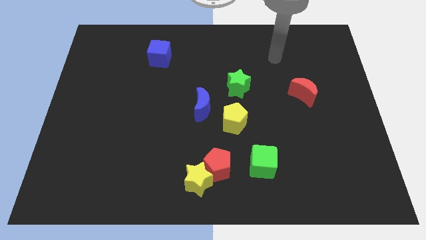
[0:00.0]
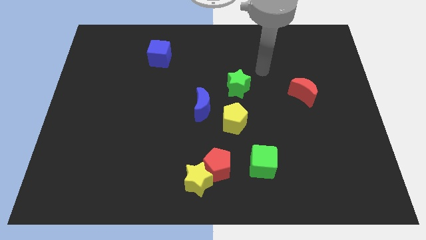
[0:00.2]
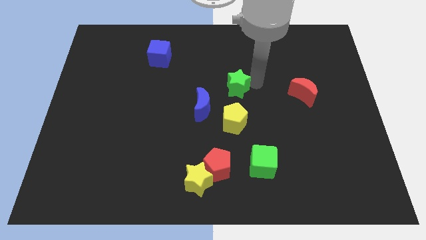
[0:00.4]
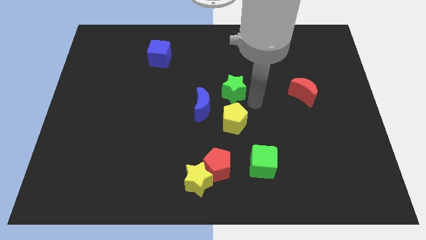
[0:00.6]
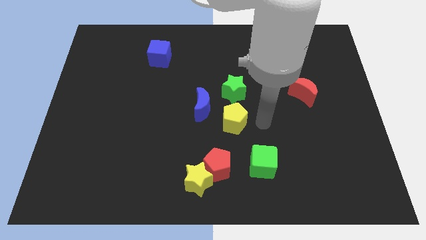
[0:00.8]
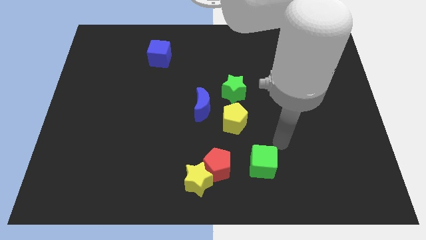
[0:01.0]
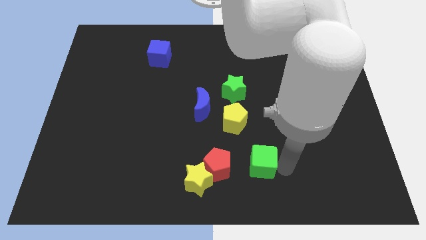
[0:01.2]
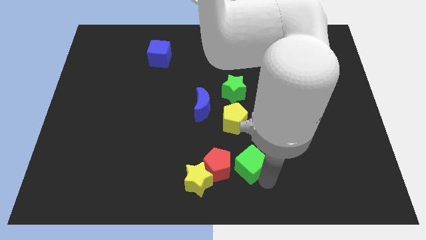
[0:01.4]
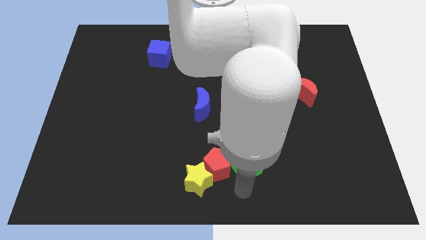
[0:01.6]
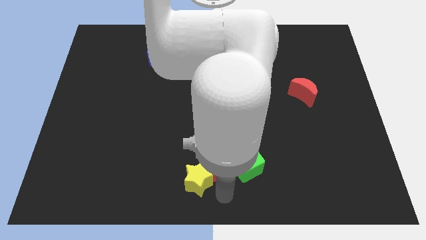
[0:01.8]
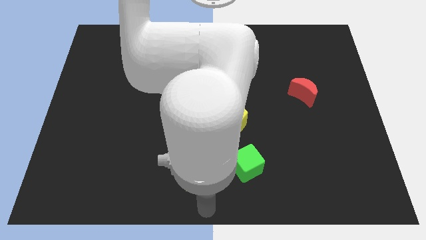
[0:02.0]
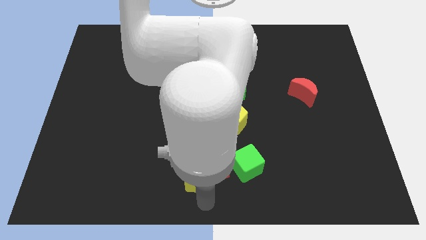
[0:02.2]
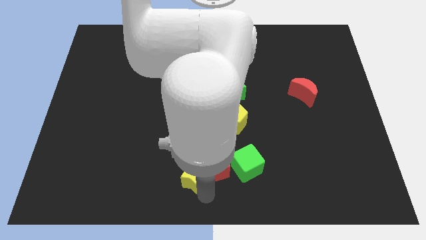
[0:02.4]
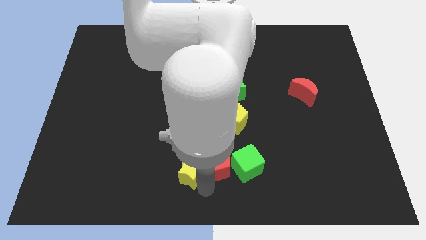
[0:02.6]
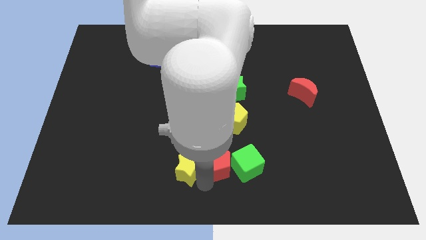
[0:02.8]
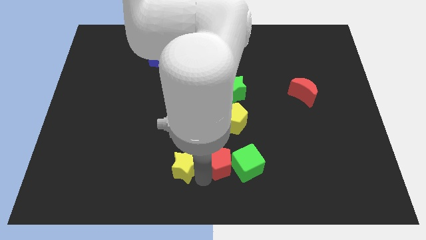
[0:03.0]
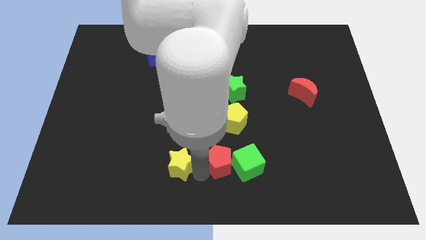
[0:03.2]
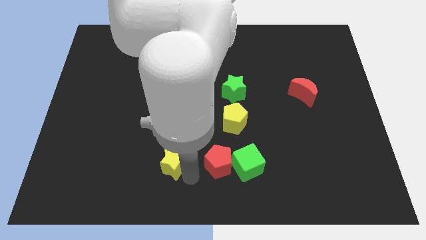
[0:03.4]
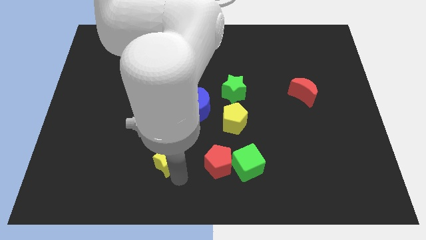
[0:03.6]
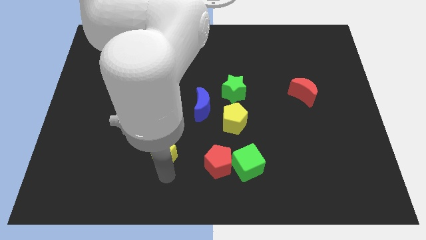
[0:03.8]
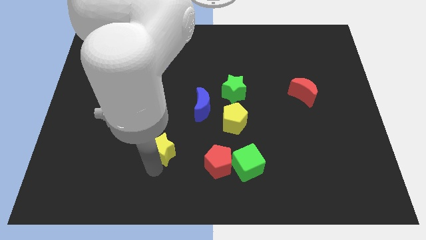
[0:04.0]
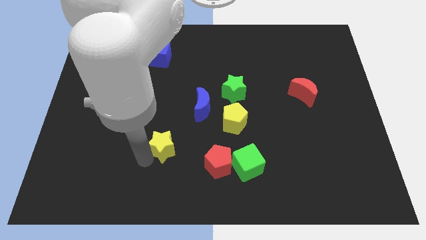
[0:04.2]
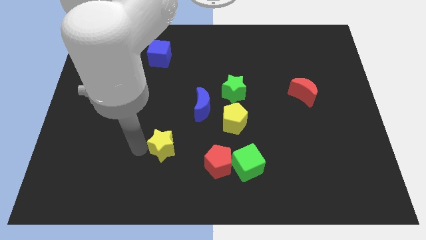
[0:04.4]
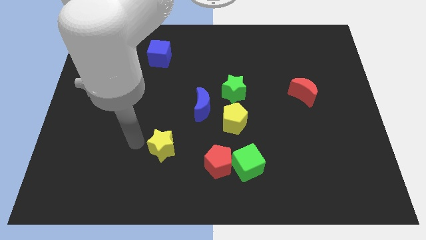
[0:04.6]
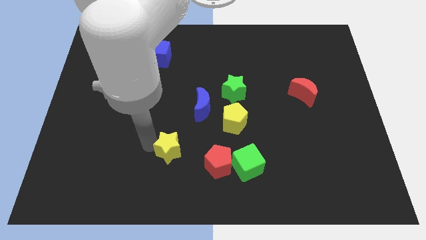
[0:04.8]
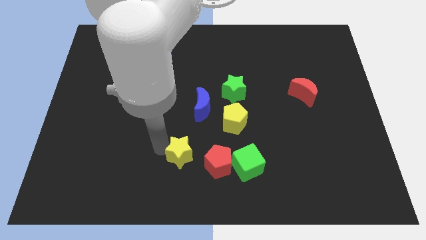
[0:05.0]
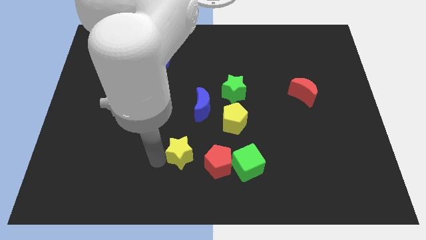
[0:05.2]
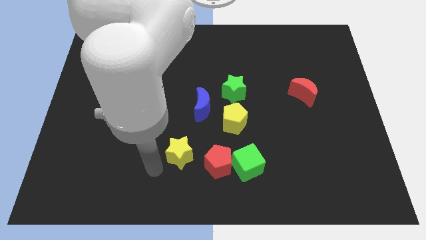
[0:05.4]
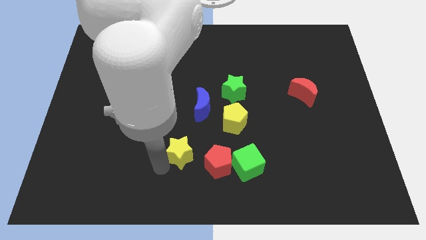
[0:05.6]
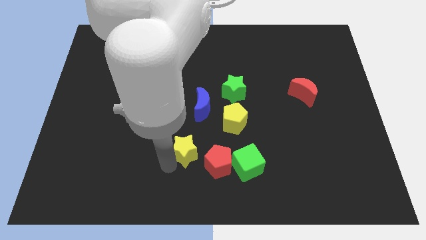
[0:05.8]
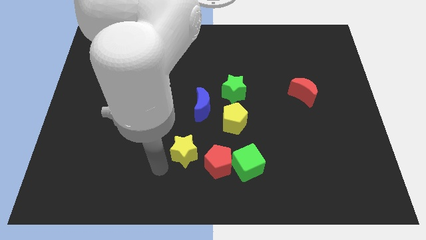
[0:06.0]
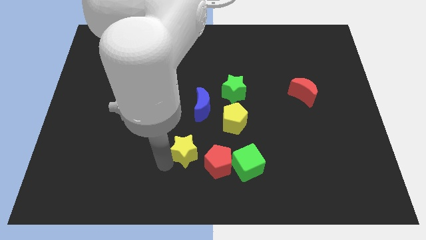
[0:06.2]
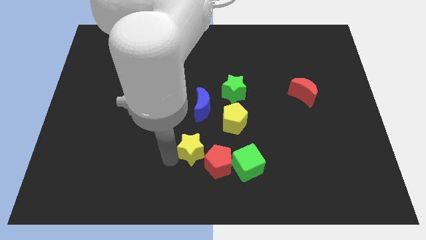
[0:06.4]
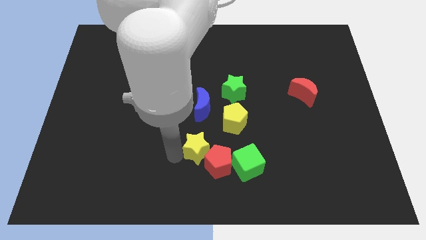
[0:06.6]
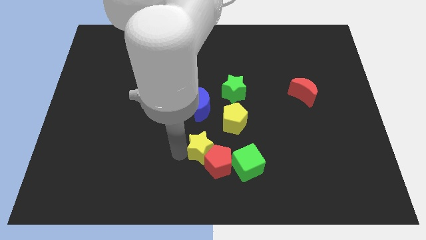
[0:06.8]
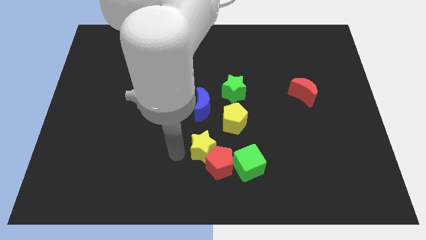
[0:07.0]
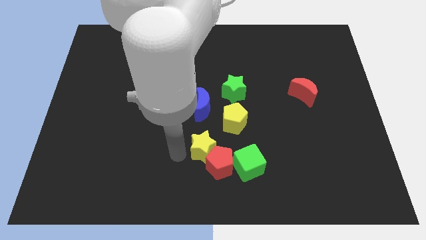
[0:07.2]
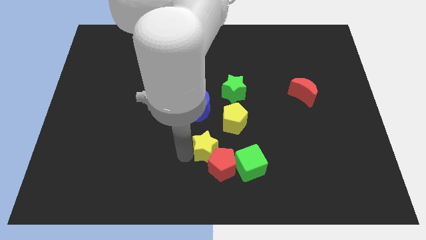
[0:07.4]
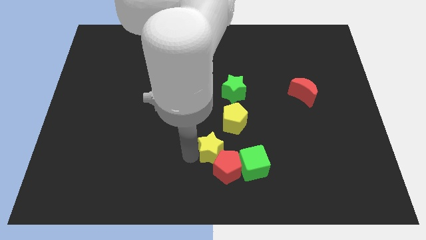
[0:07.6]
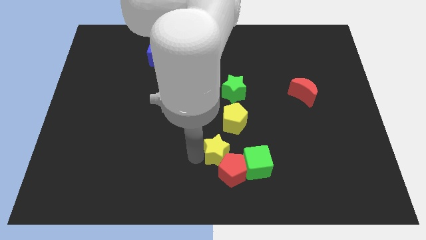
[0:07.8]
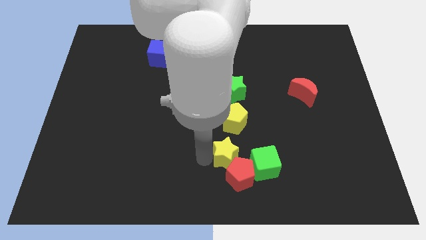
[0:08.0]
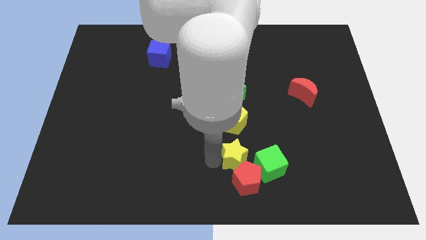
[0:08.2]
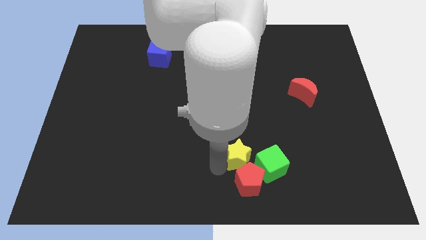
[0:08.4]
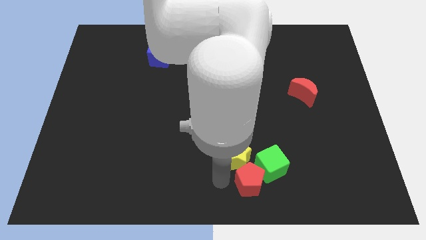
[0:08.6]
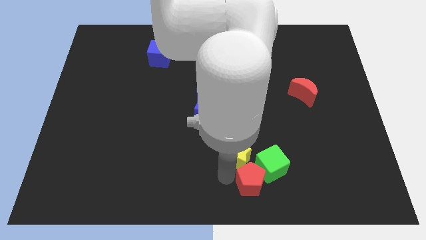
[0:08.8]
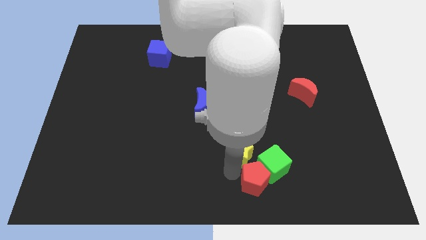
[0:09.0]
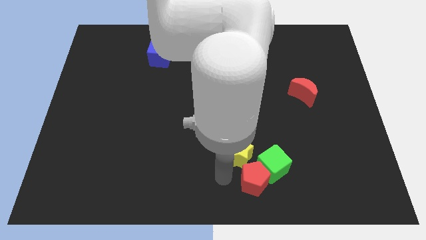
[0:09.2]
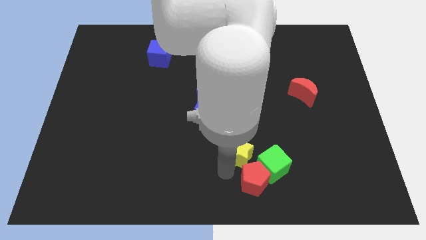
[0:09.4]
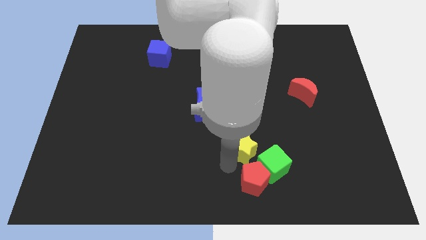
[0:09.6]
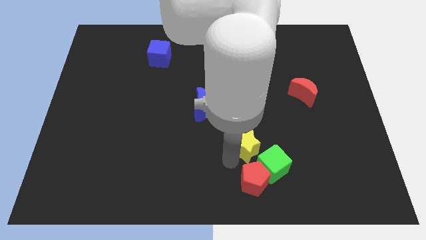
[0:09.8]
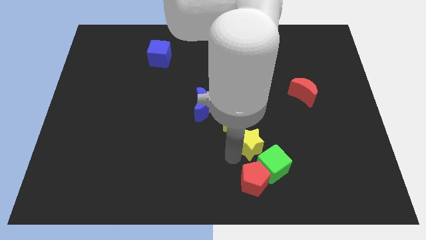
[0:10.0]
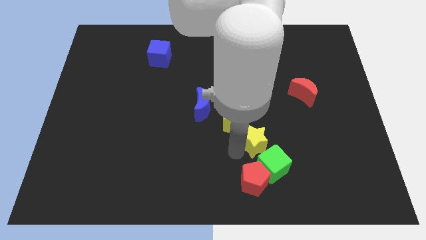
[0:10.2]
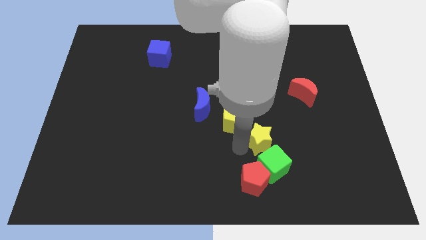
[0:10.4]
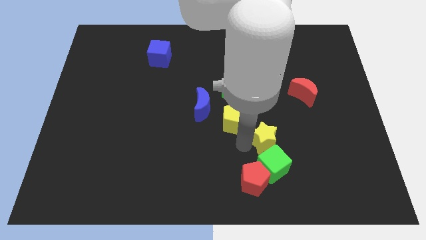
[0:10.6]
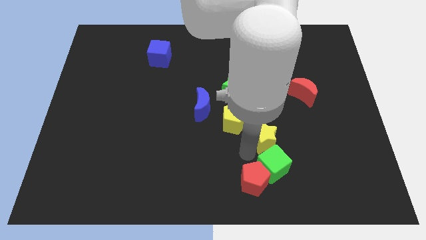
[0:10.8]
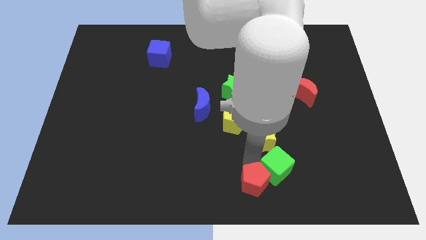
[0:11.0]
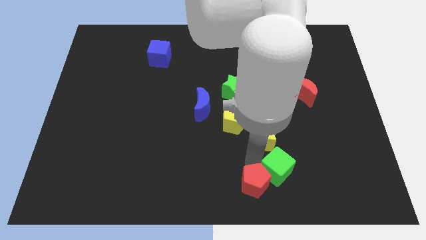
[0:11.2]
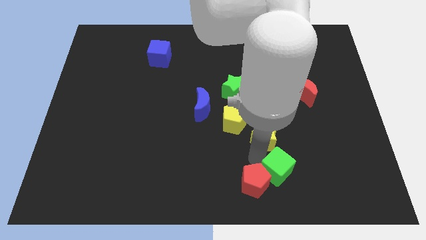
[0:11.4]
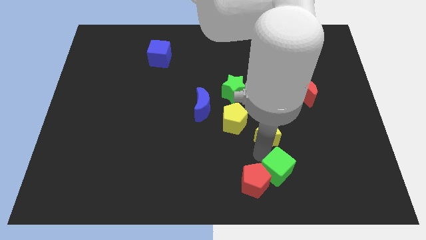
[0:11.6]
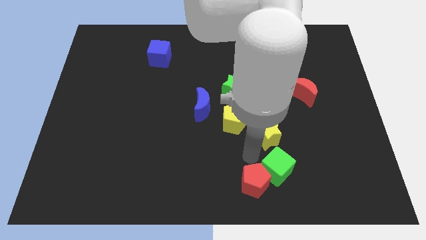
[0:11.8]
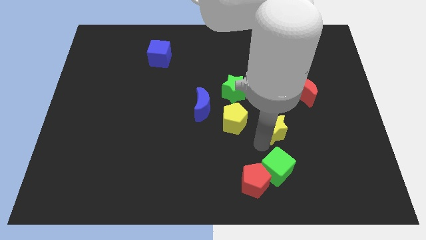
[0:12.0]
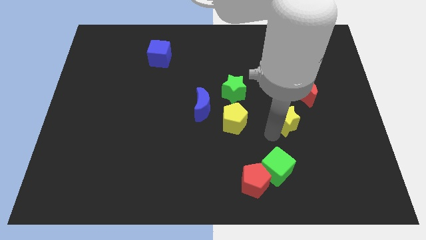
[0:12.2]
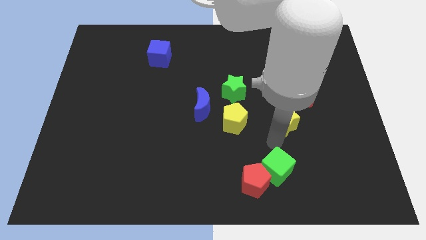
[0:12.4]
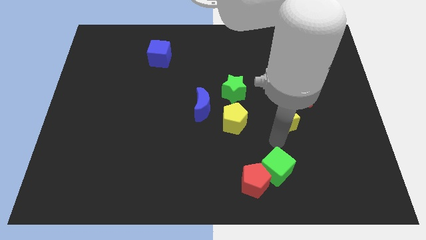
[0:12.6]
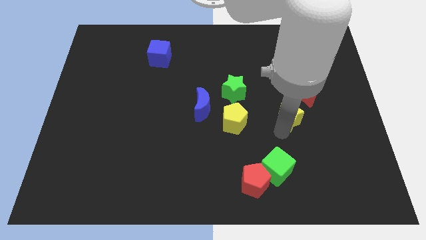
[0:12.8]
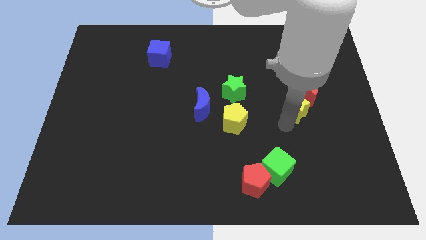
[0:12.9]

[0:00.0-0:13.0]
put the yellow star towards the red moon

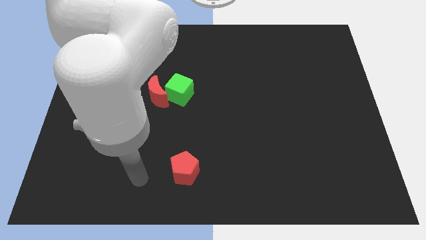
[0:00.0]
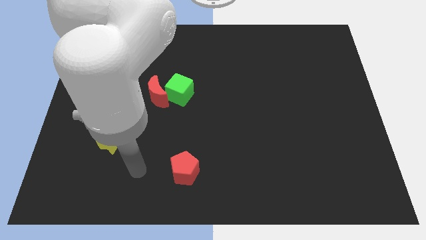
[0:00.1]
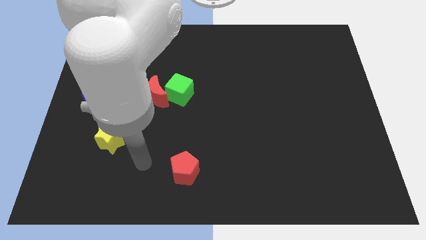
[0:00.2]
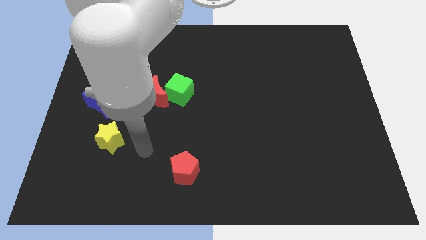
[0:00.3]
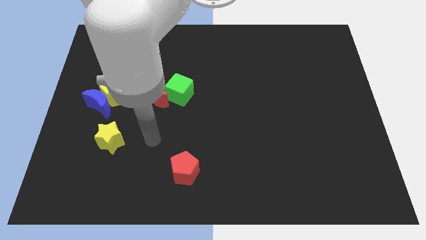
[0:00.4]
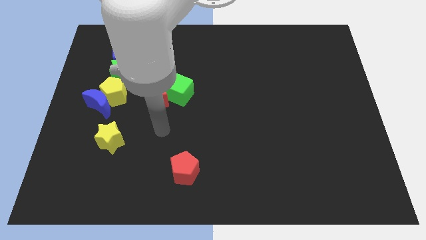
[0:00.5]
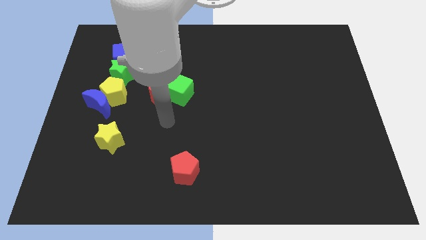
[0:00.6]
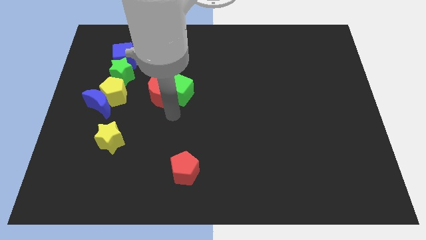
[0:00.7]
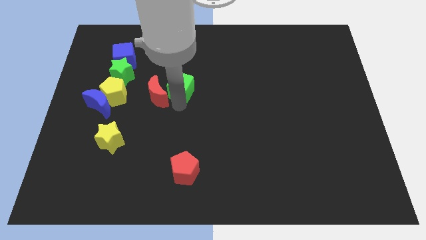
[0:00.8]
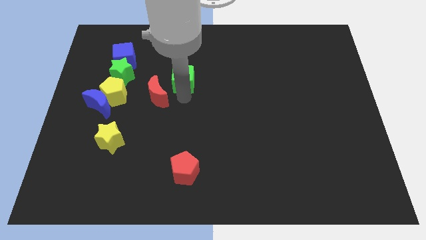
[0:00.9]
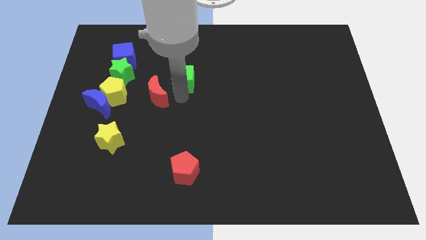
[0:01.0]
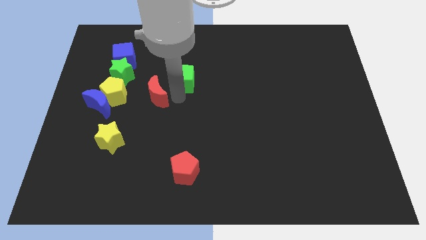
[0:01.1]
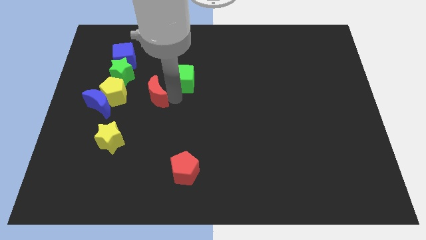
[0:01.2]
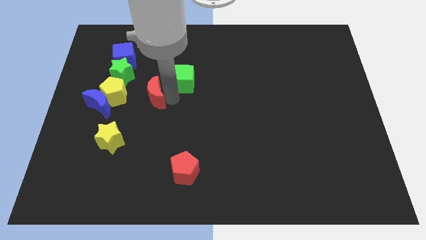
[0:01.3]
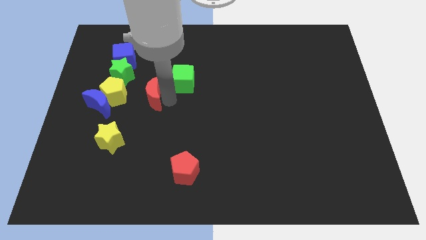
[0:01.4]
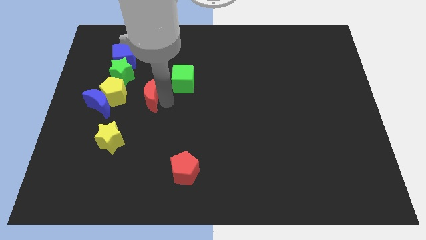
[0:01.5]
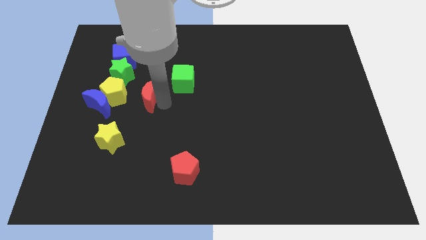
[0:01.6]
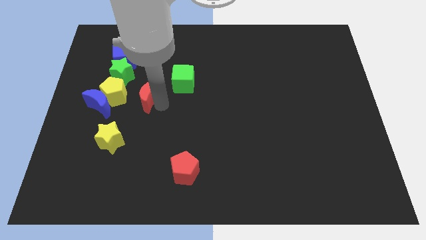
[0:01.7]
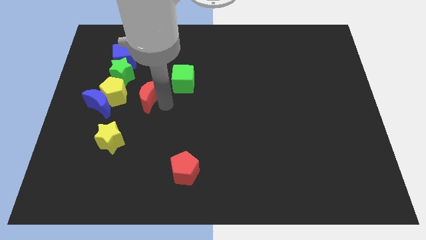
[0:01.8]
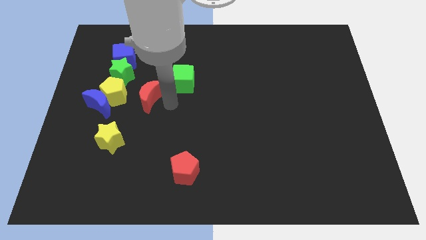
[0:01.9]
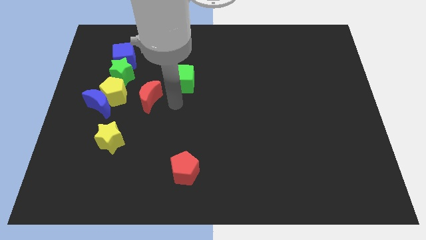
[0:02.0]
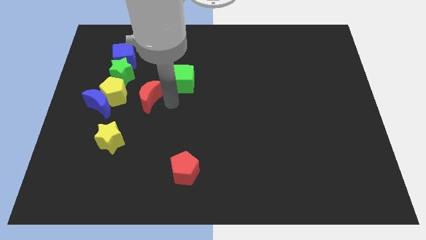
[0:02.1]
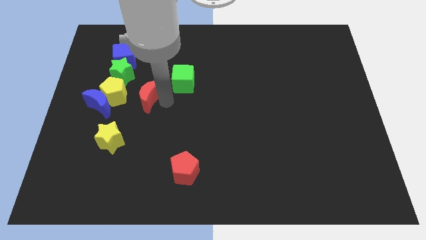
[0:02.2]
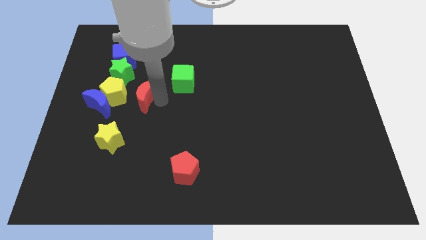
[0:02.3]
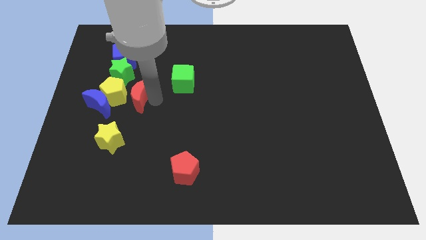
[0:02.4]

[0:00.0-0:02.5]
put the red moon next to the yellow pentagon
